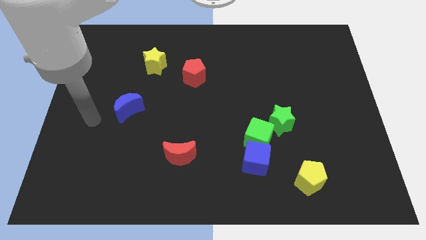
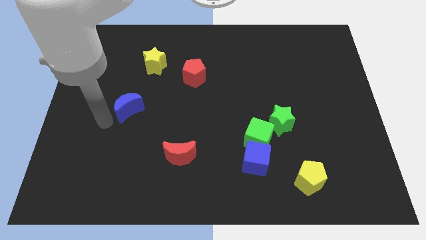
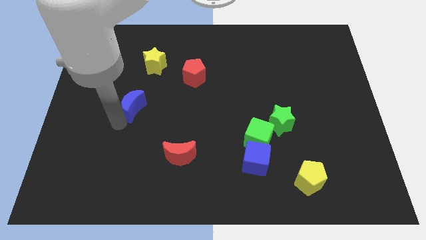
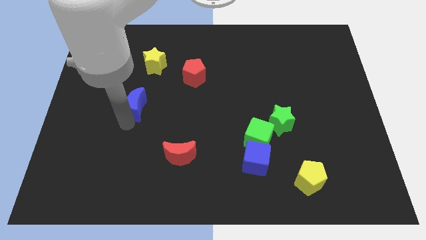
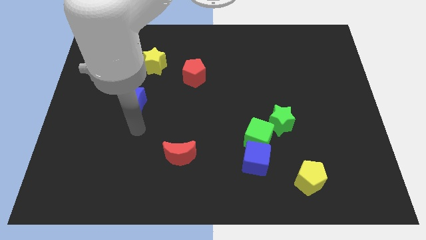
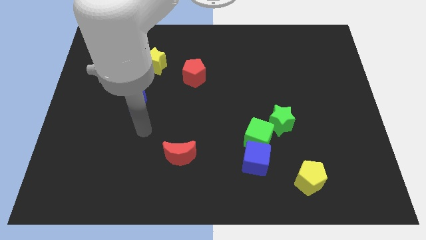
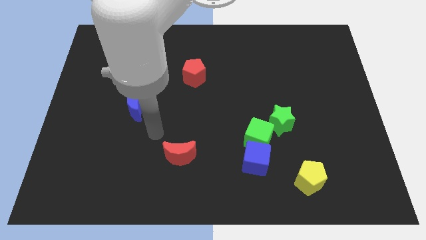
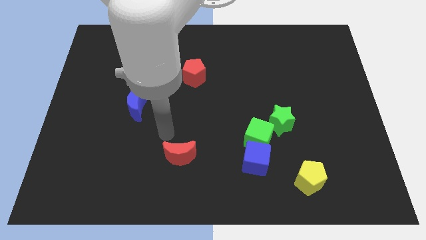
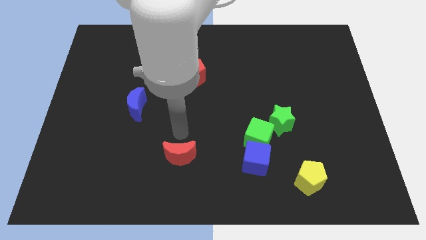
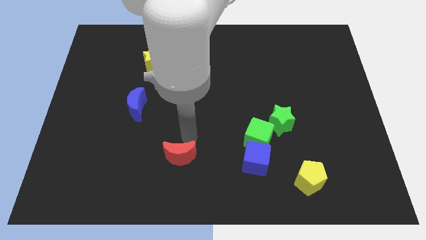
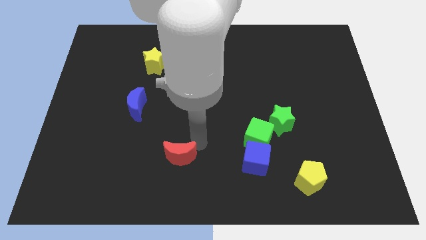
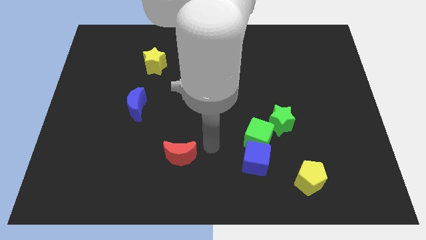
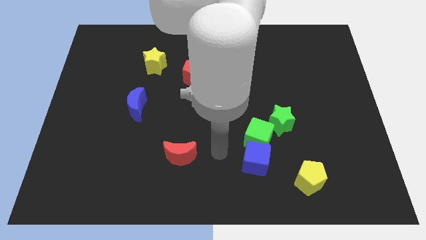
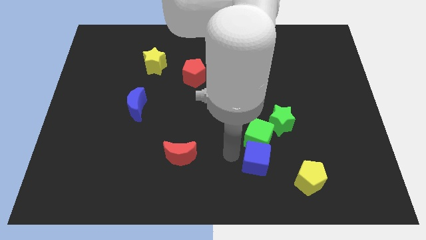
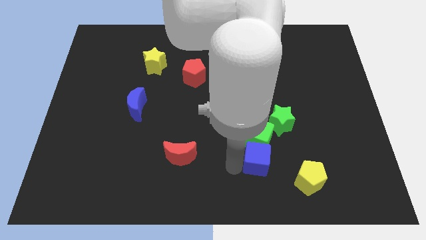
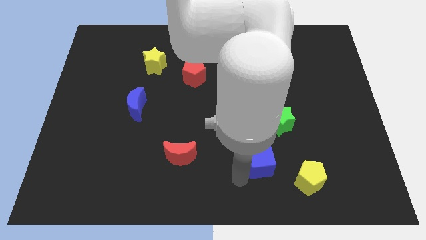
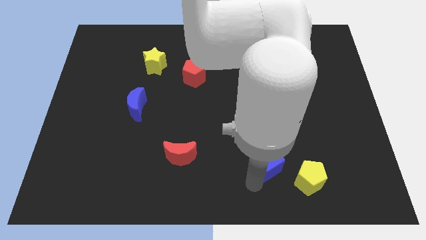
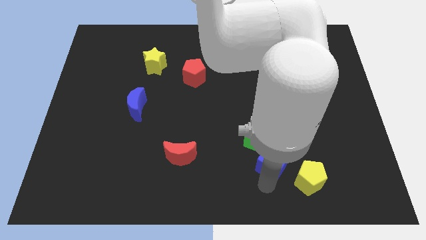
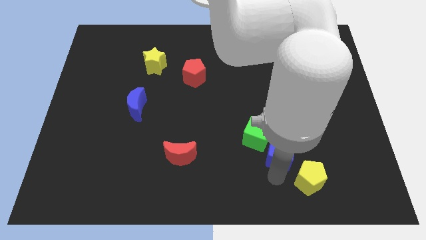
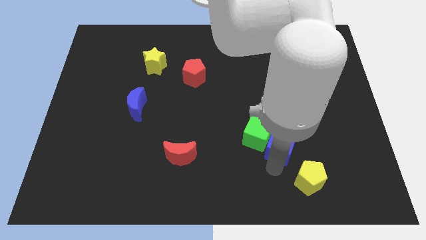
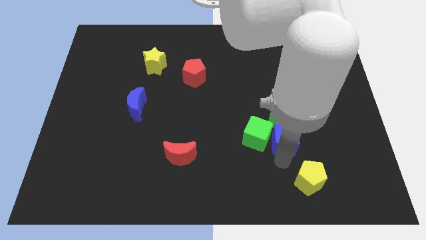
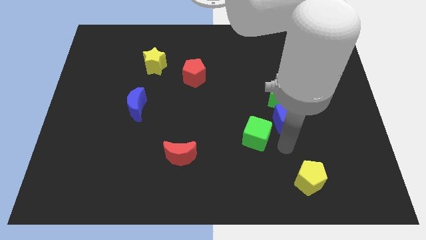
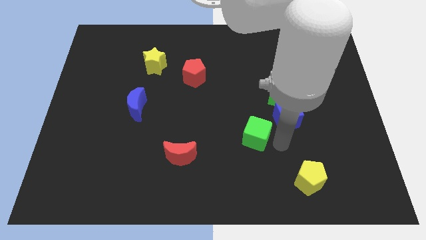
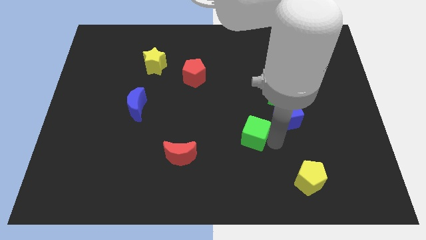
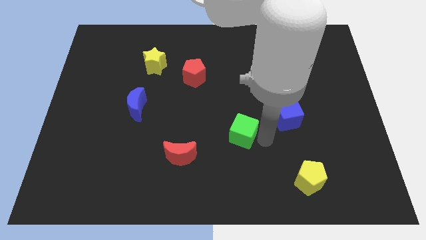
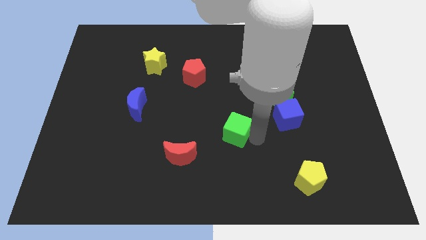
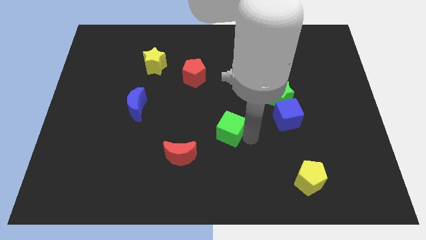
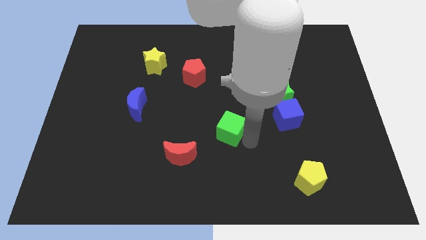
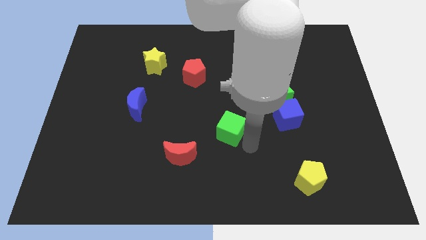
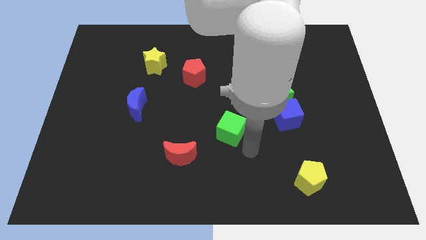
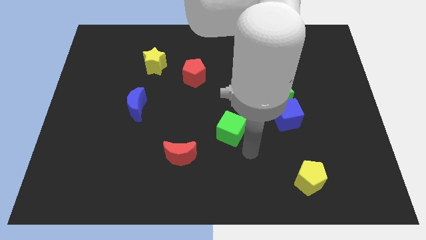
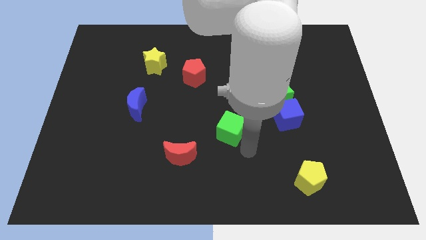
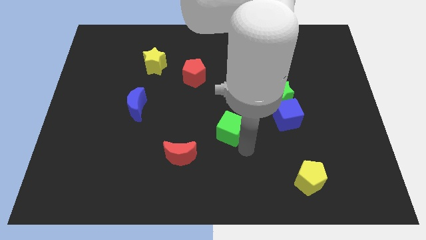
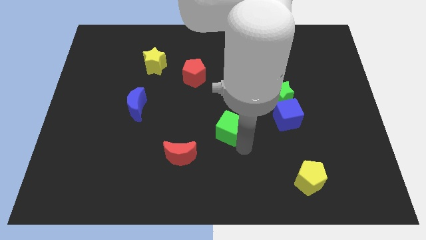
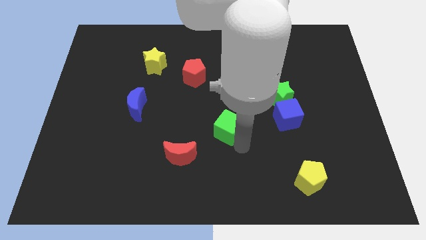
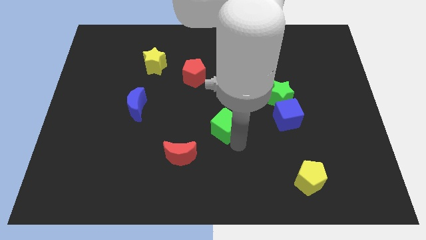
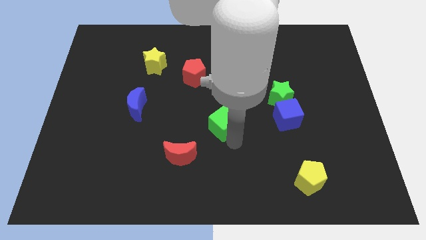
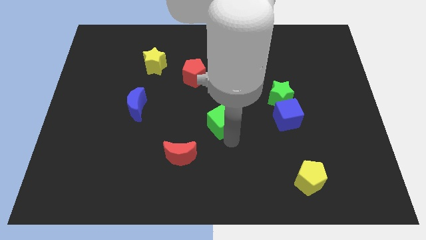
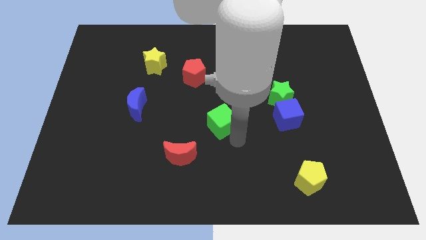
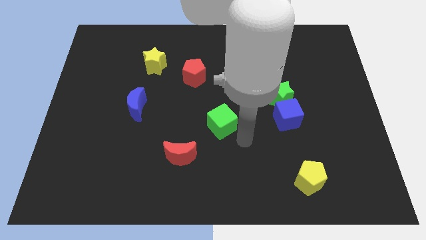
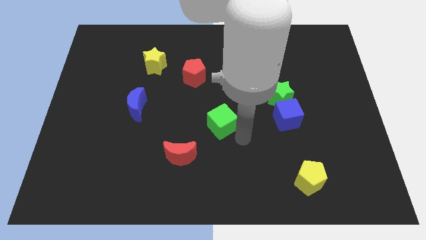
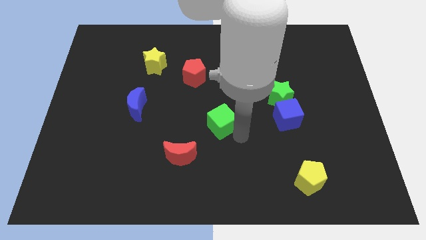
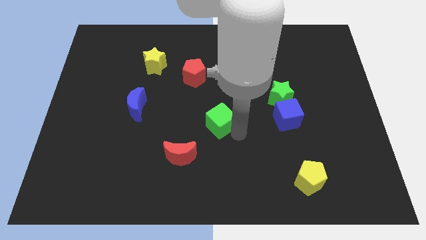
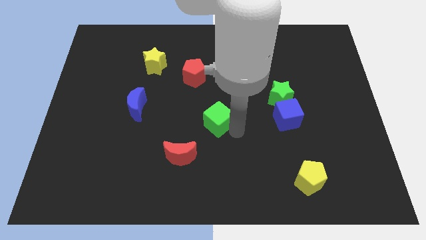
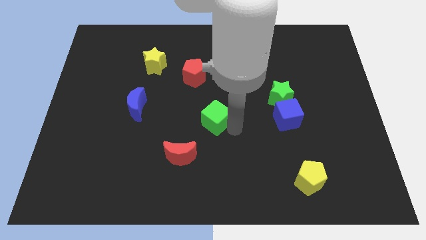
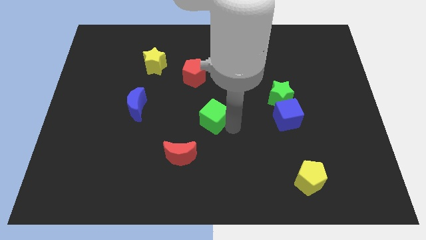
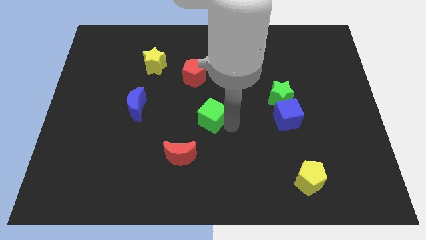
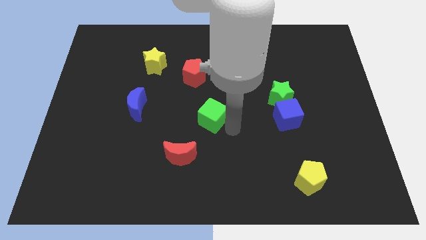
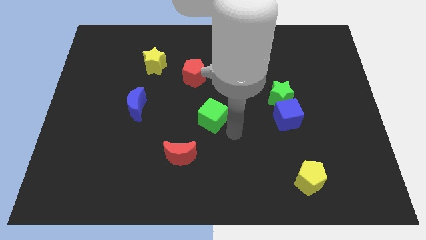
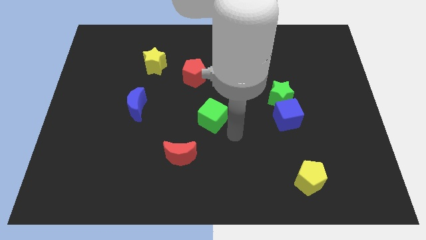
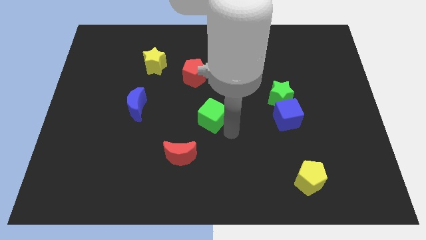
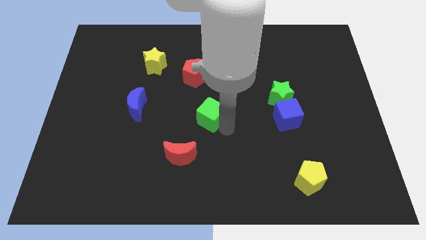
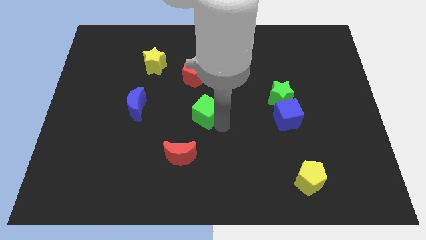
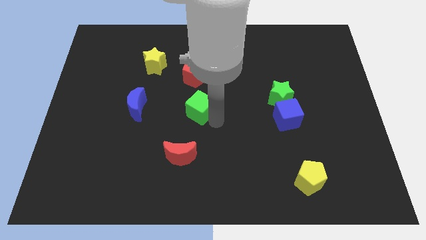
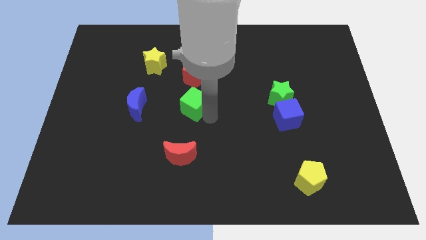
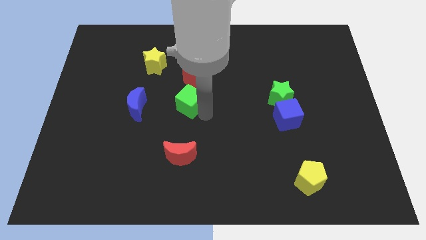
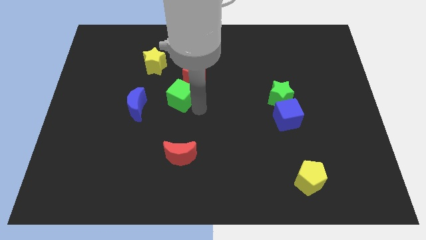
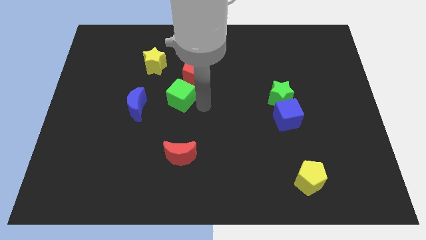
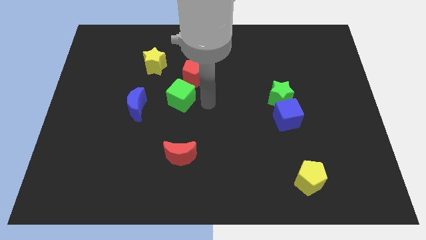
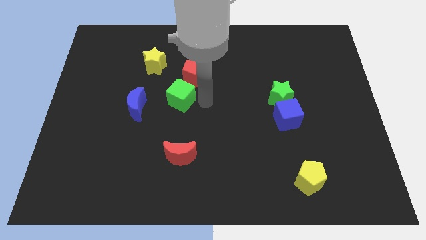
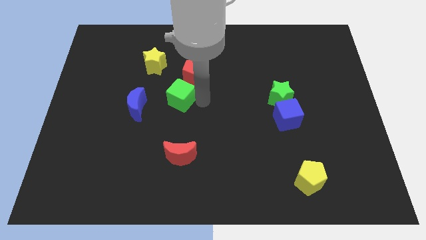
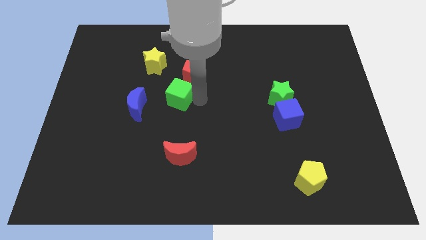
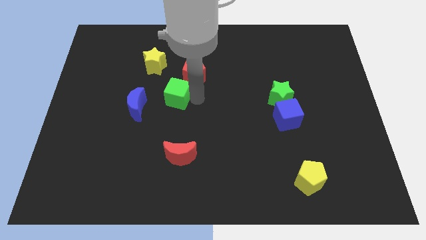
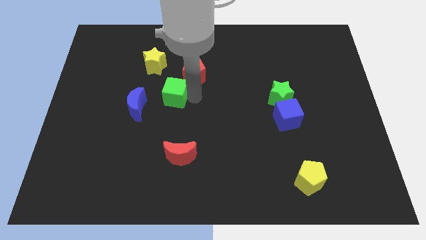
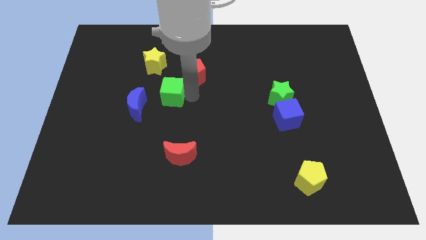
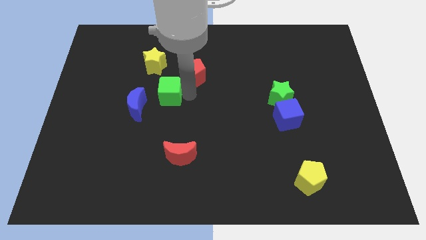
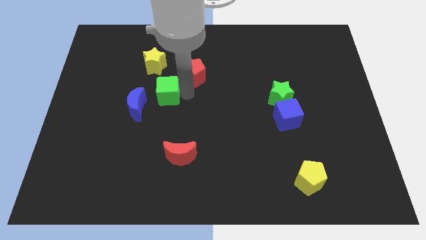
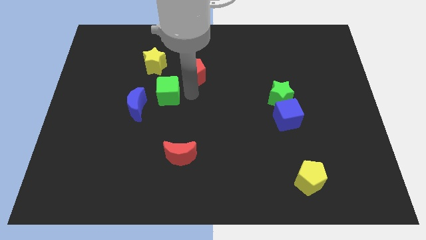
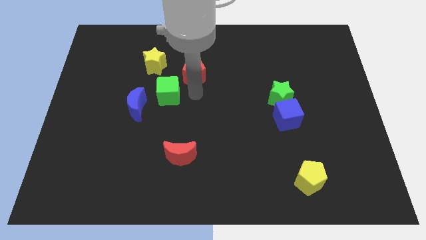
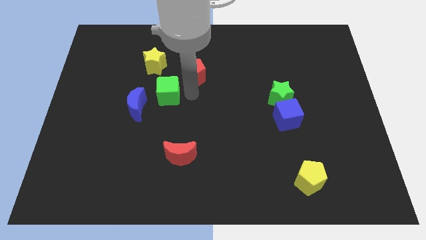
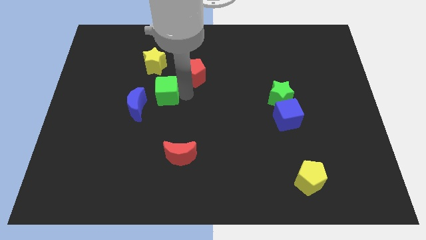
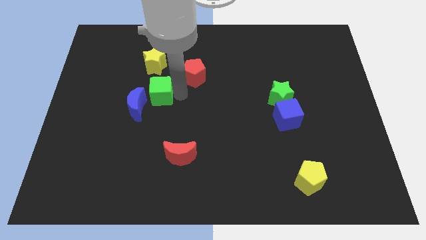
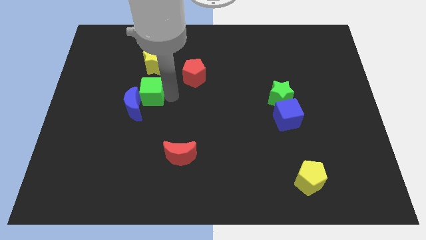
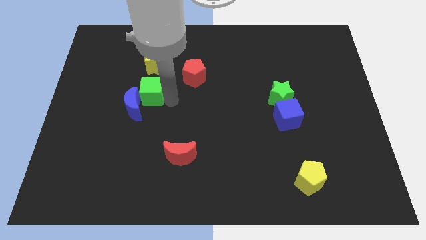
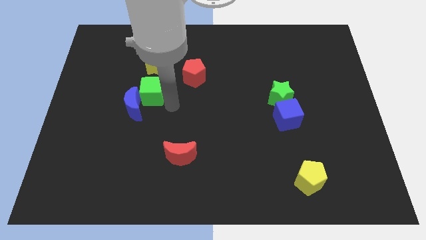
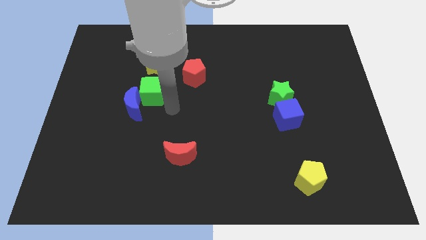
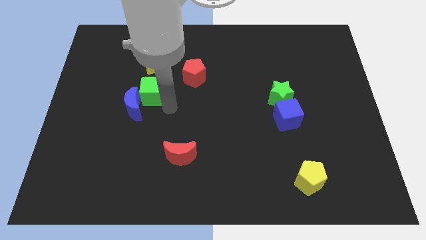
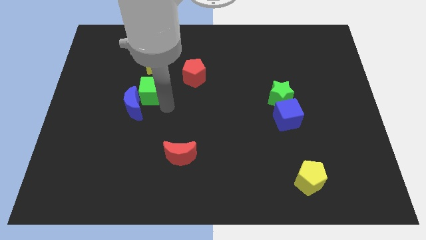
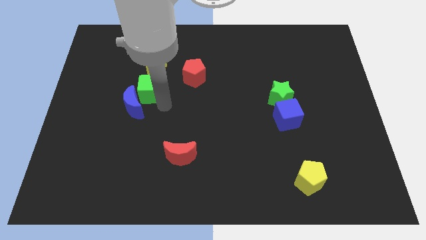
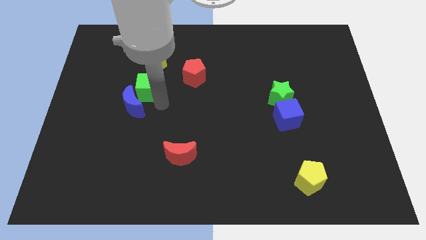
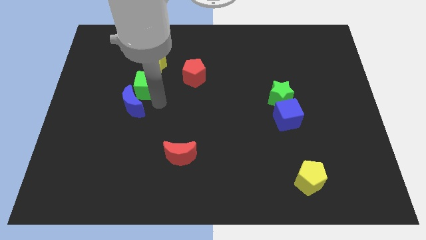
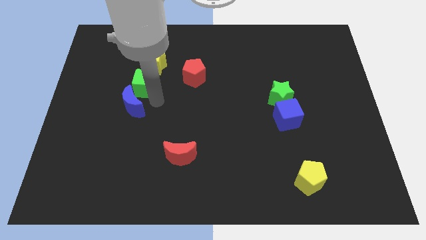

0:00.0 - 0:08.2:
slide the green cube diagonally down and to the left of the yellow star
